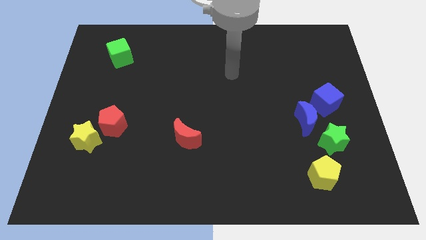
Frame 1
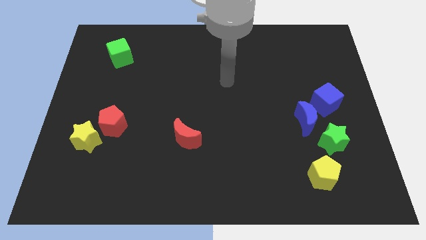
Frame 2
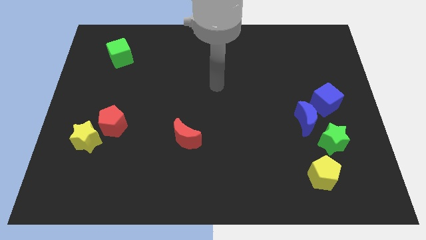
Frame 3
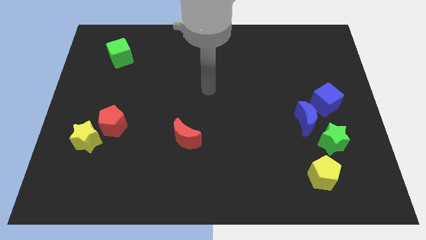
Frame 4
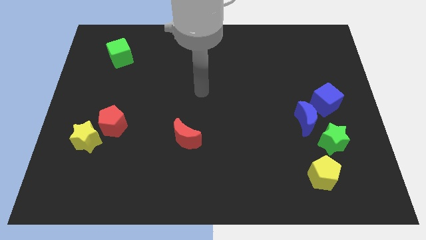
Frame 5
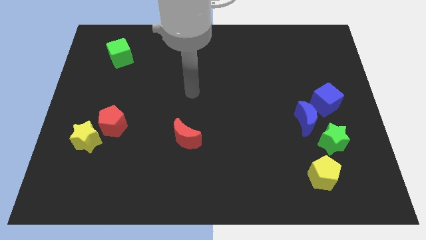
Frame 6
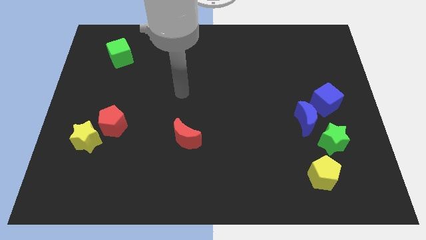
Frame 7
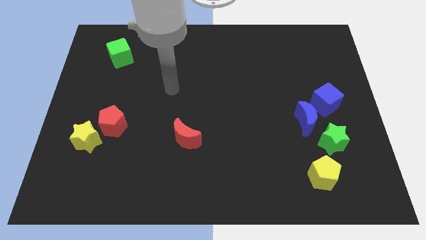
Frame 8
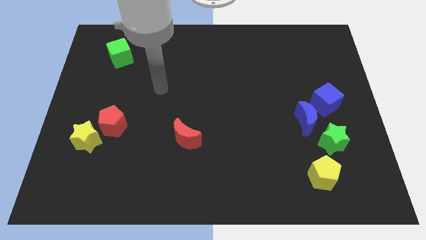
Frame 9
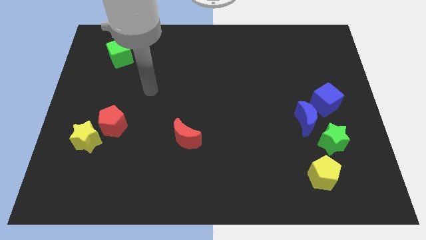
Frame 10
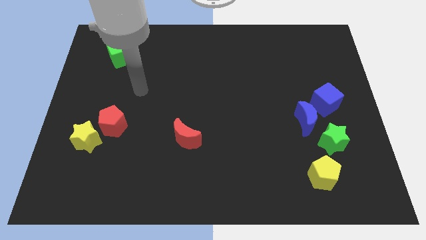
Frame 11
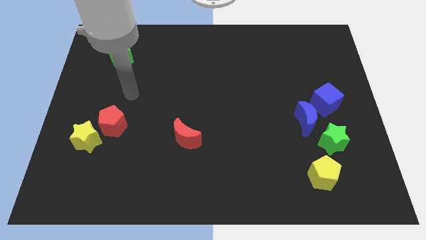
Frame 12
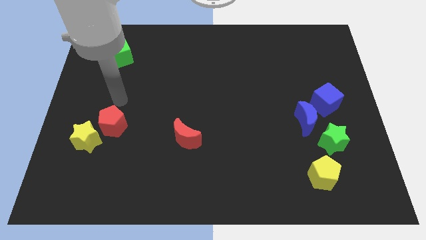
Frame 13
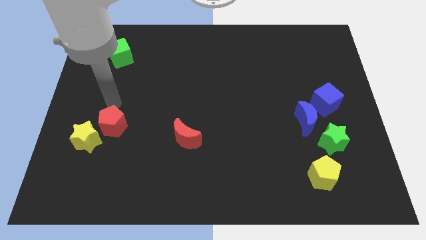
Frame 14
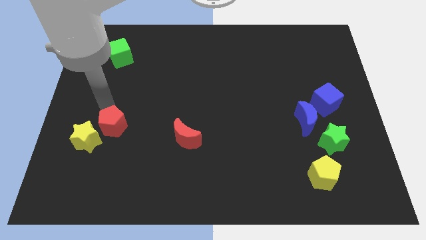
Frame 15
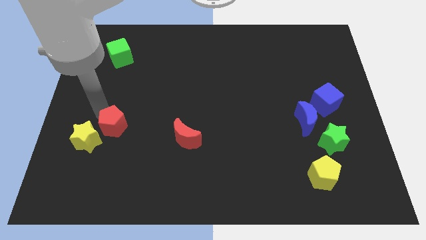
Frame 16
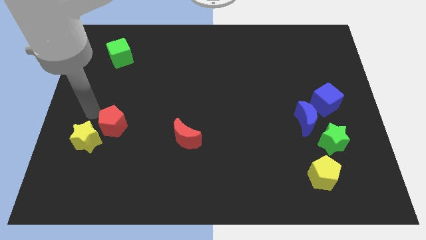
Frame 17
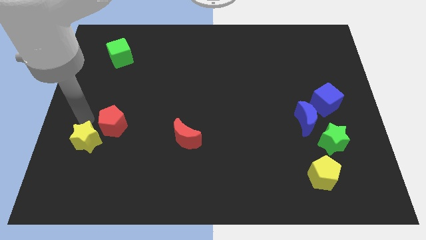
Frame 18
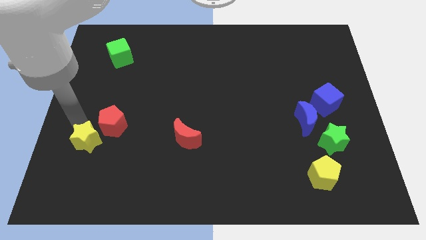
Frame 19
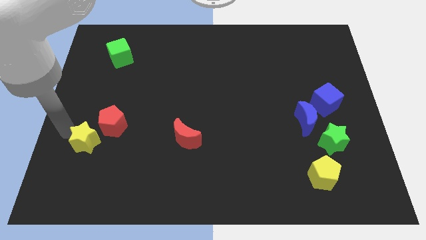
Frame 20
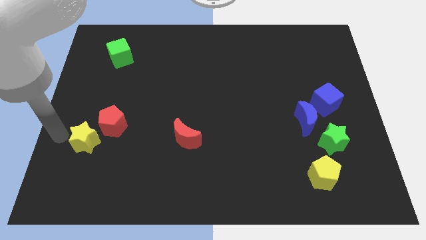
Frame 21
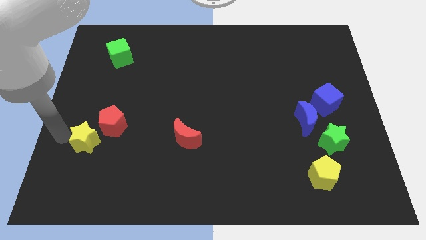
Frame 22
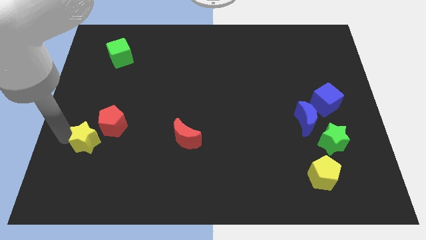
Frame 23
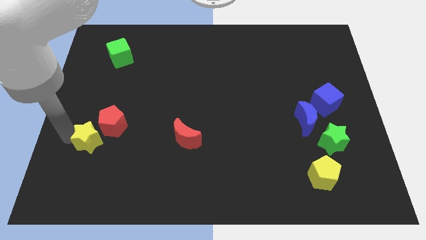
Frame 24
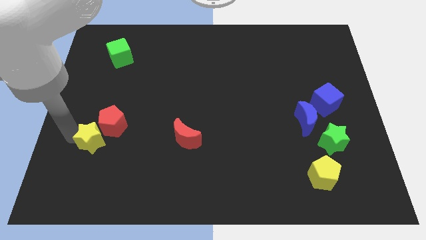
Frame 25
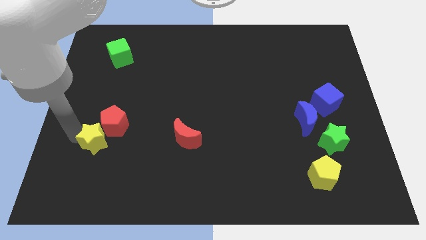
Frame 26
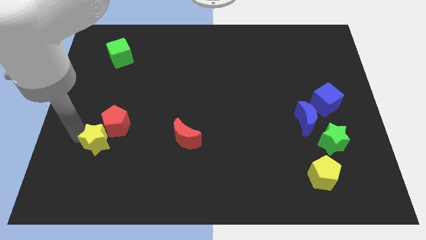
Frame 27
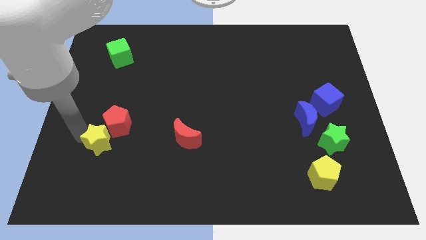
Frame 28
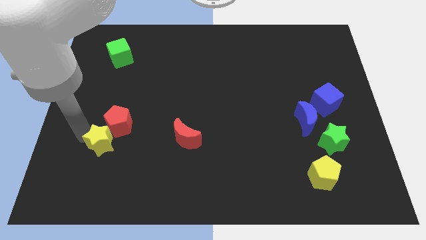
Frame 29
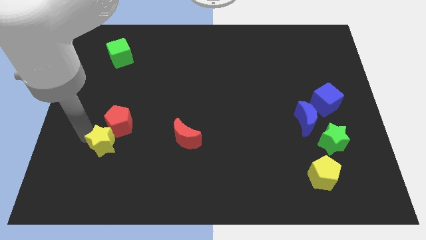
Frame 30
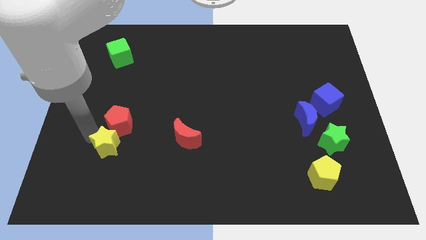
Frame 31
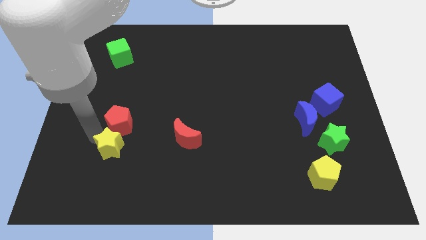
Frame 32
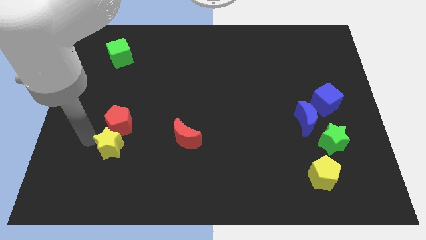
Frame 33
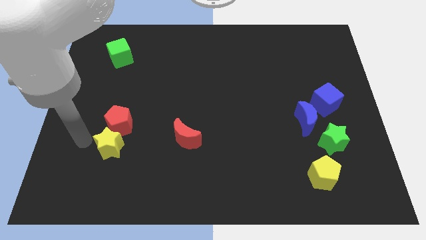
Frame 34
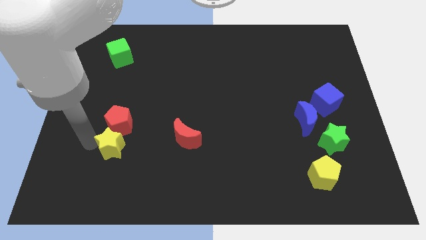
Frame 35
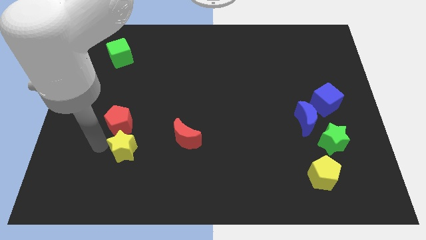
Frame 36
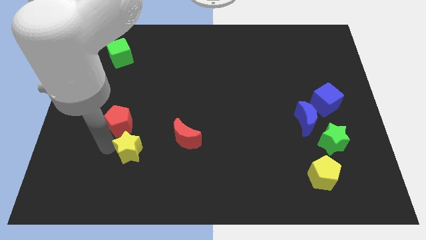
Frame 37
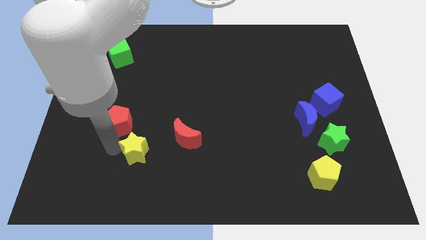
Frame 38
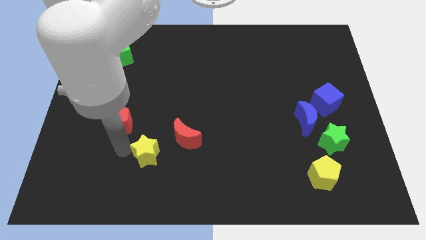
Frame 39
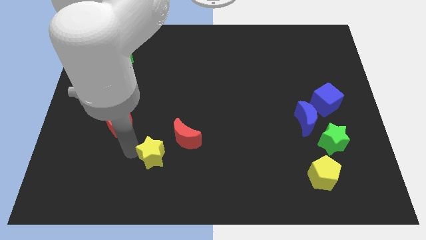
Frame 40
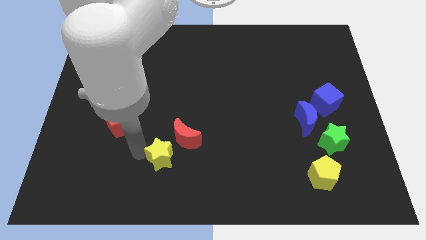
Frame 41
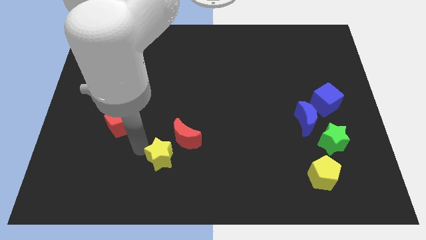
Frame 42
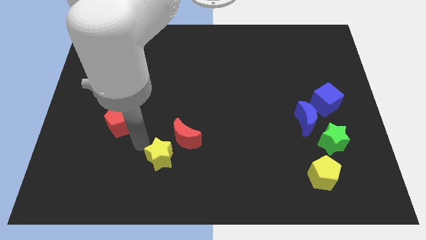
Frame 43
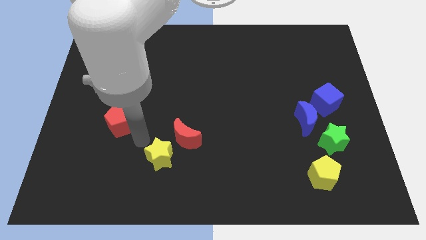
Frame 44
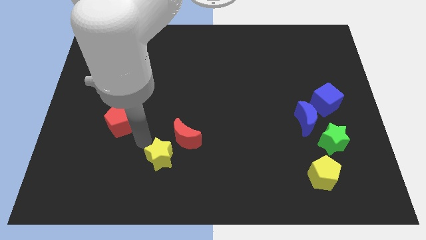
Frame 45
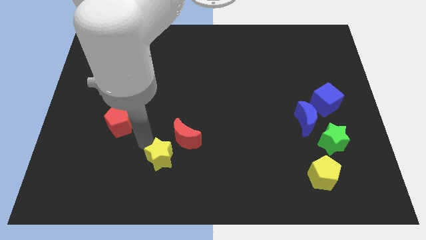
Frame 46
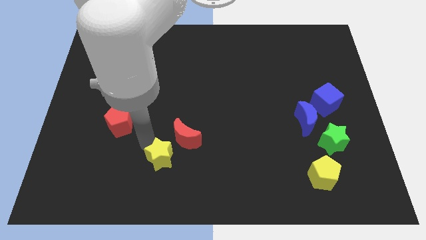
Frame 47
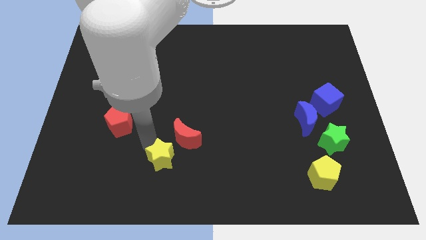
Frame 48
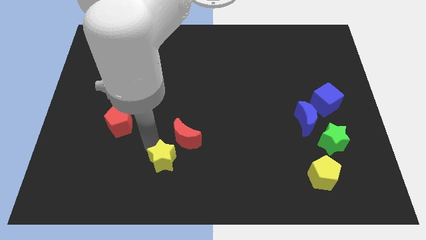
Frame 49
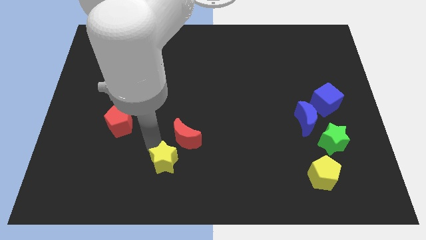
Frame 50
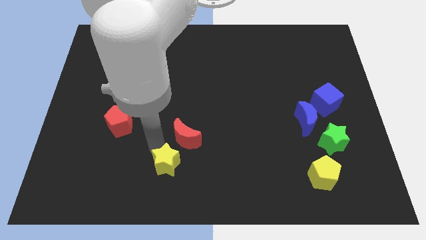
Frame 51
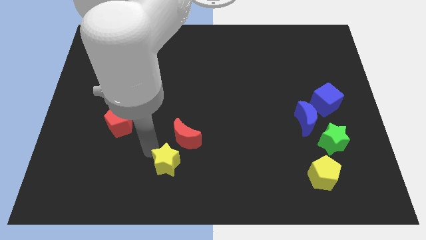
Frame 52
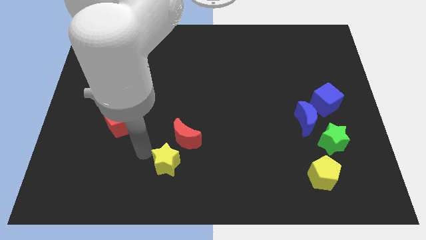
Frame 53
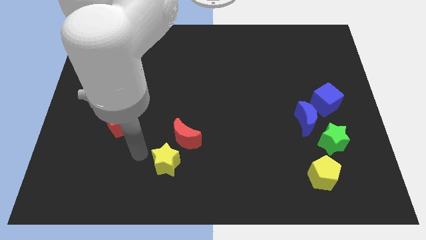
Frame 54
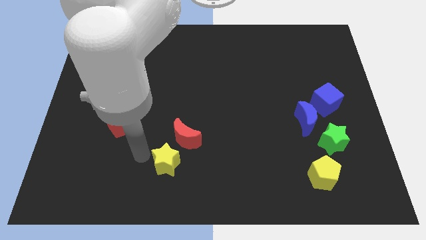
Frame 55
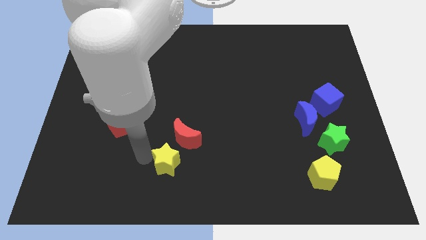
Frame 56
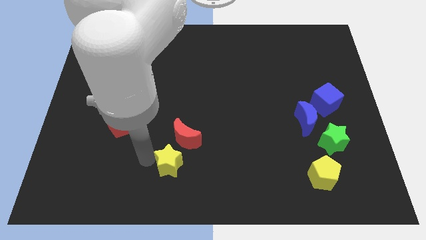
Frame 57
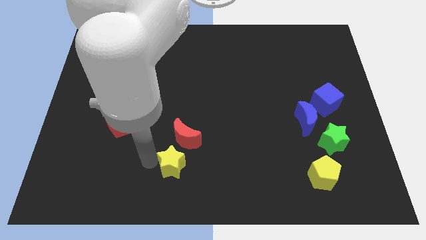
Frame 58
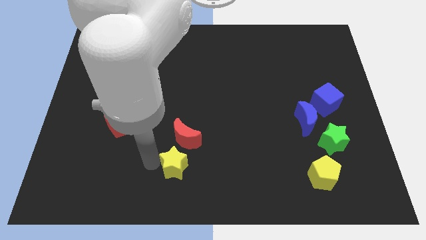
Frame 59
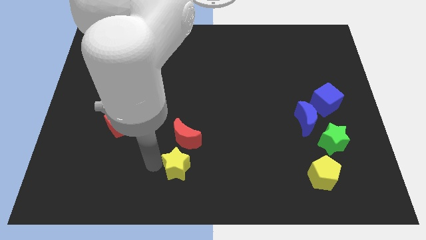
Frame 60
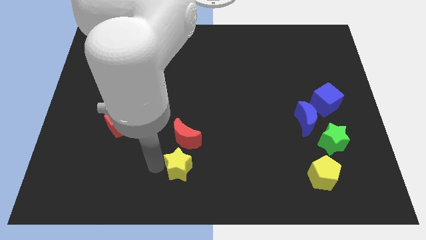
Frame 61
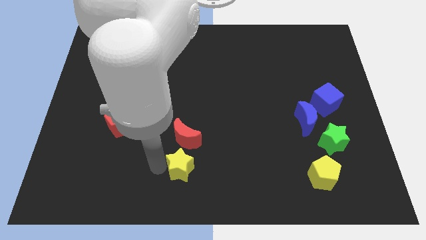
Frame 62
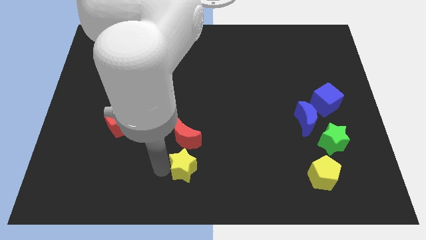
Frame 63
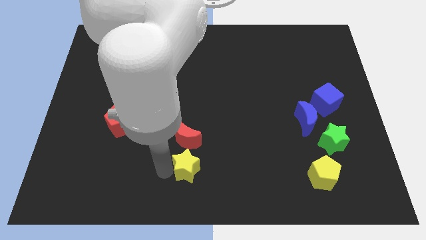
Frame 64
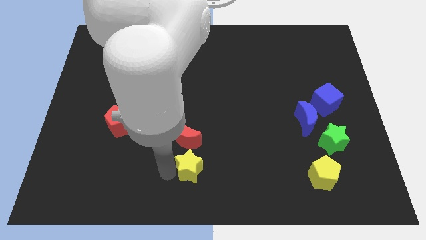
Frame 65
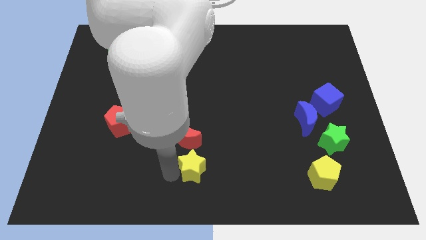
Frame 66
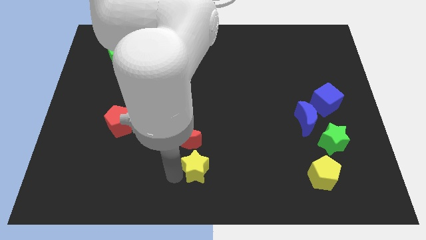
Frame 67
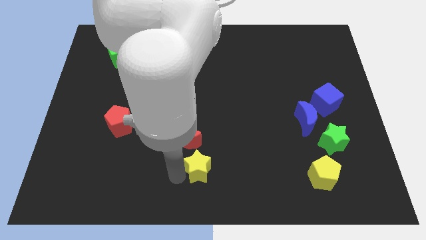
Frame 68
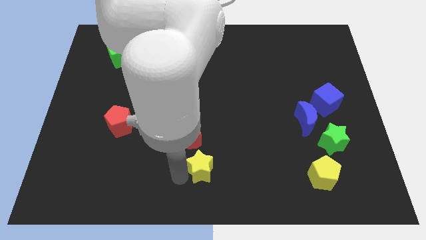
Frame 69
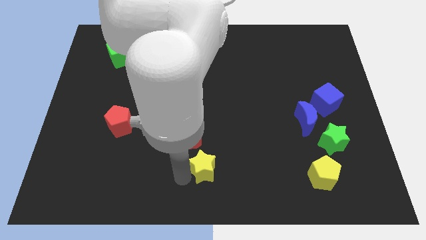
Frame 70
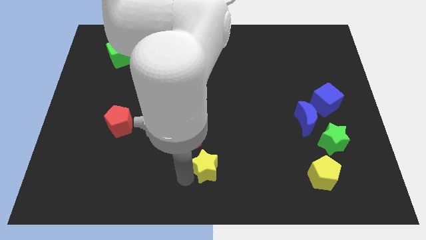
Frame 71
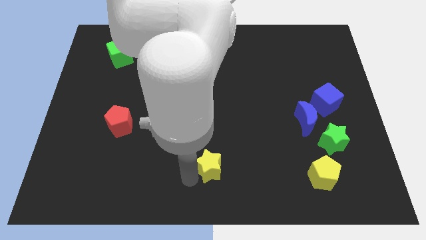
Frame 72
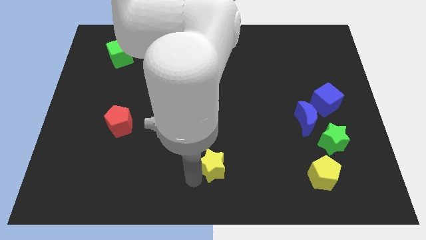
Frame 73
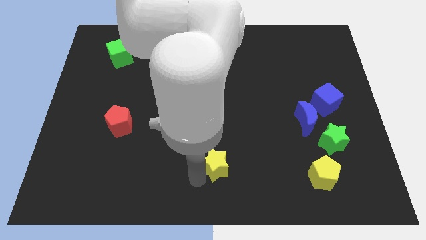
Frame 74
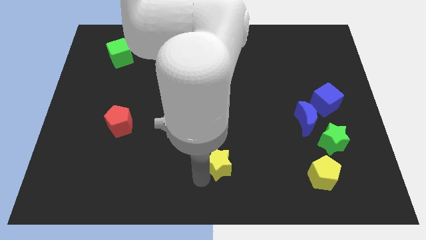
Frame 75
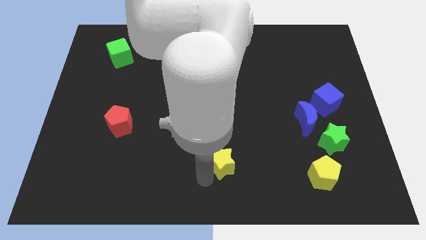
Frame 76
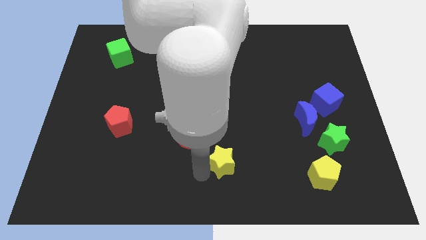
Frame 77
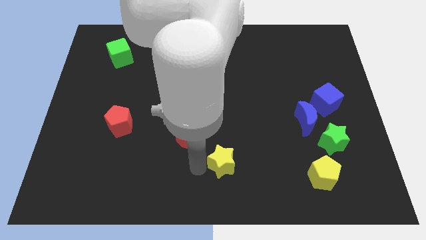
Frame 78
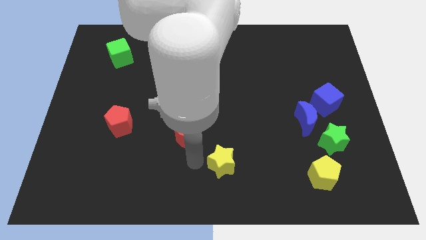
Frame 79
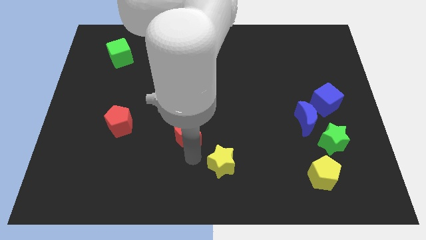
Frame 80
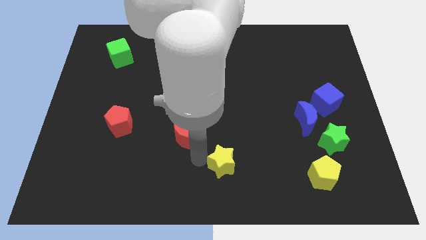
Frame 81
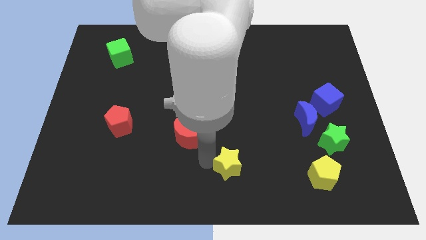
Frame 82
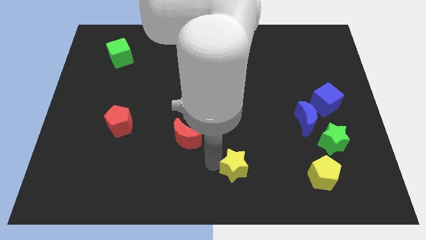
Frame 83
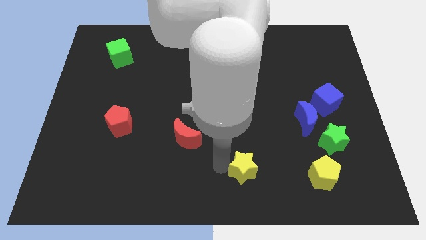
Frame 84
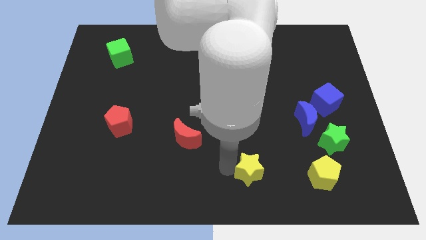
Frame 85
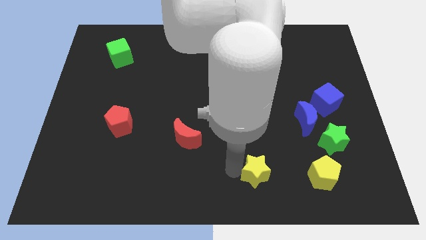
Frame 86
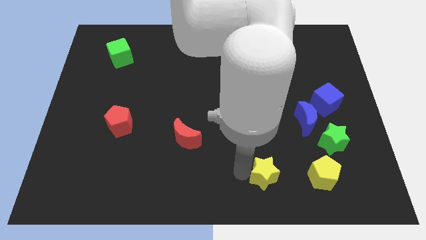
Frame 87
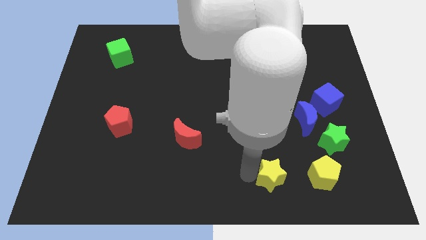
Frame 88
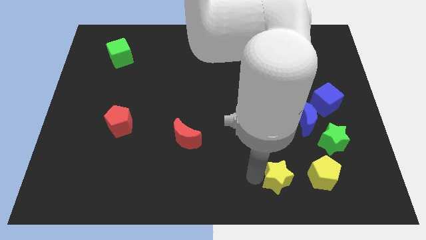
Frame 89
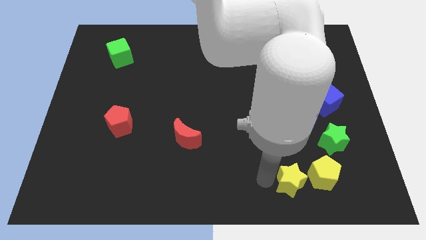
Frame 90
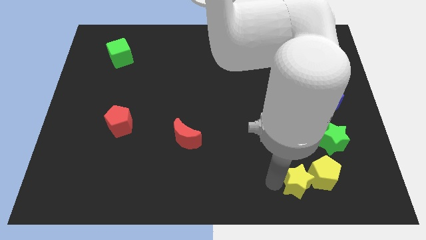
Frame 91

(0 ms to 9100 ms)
push the yellow star next to the yellow pentagon
